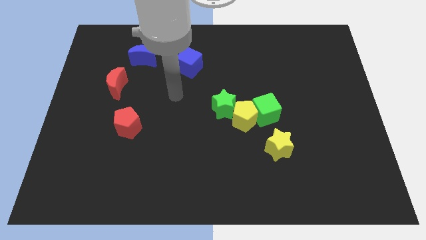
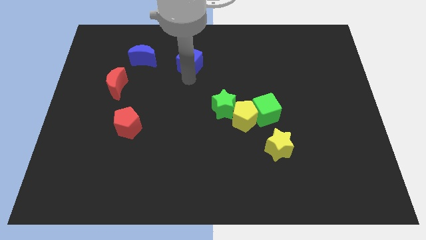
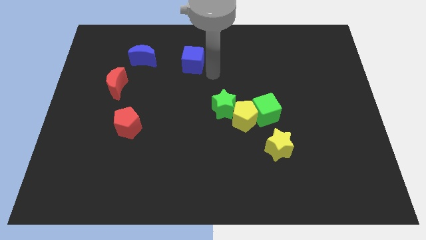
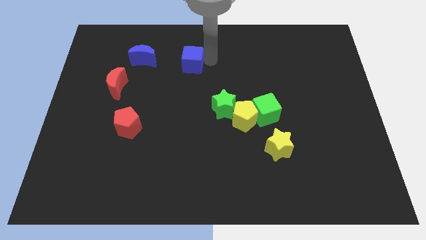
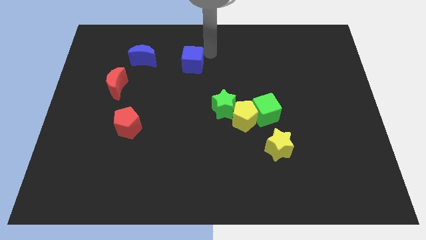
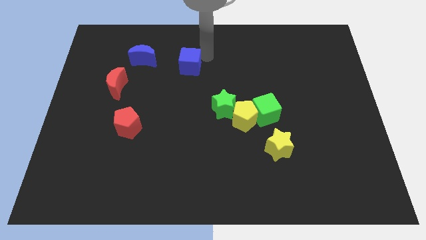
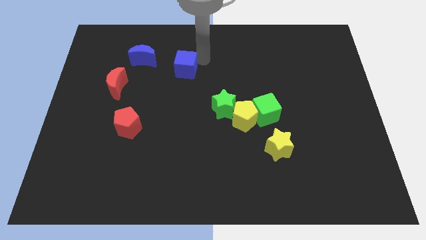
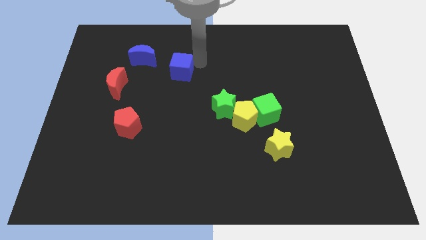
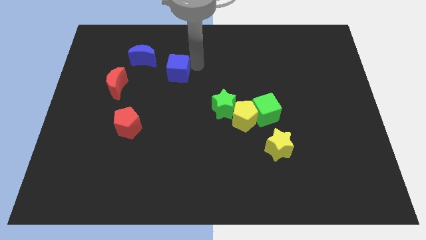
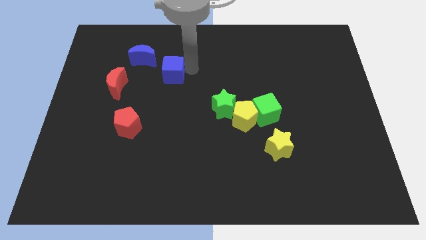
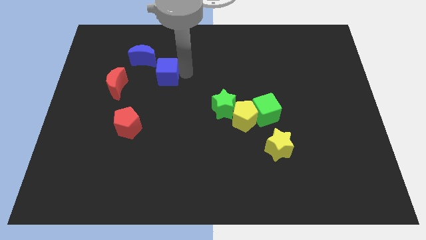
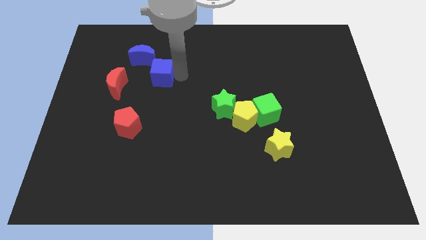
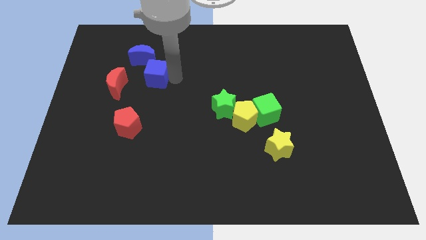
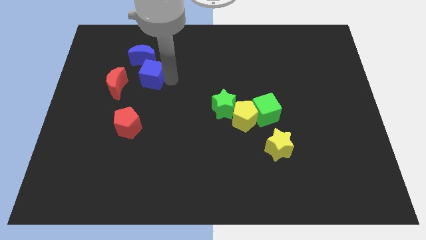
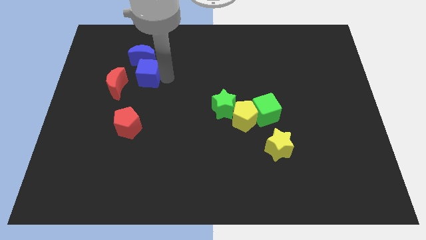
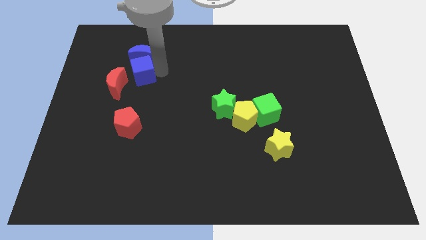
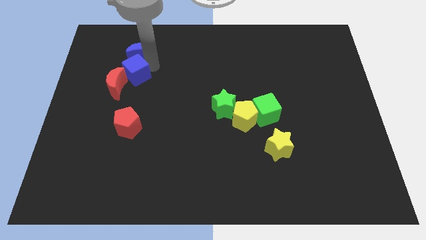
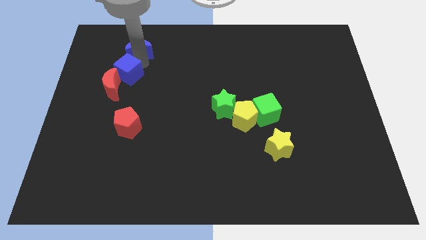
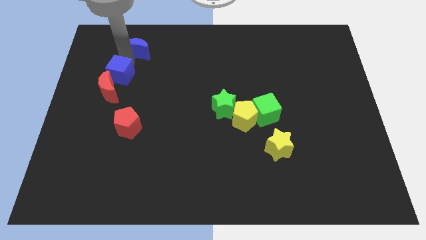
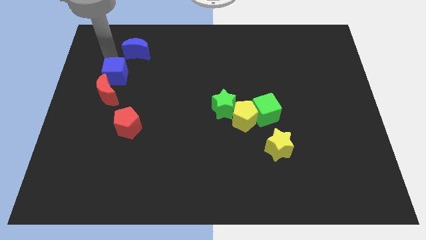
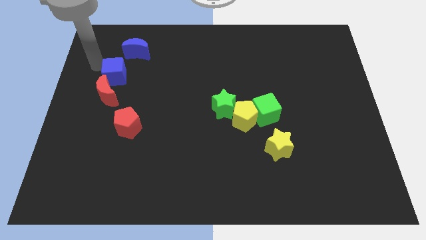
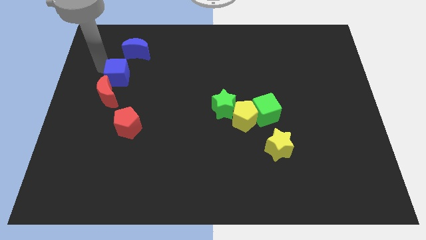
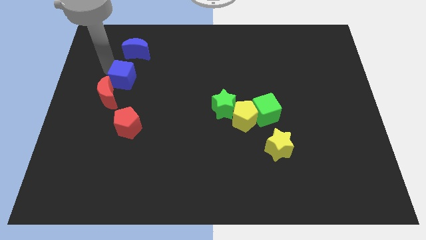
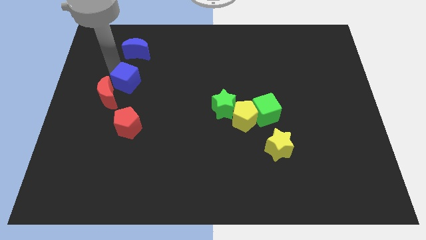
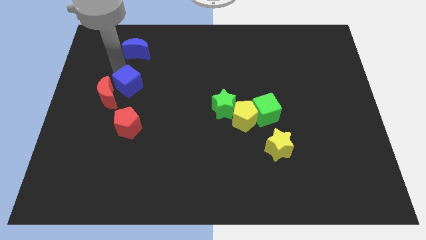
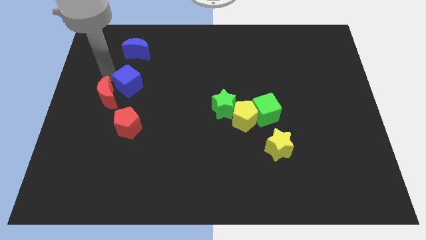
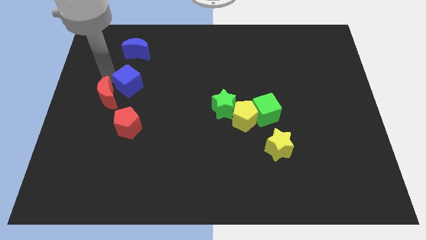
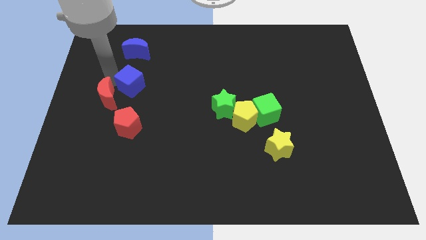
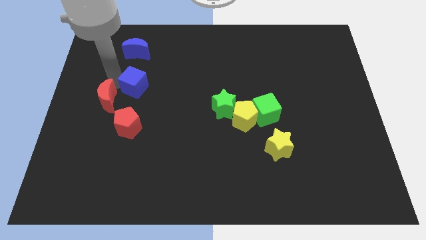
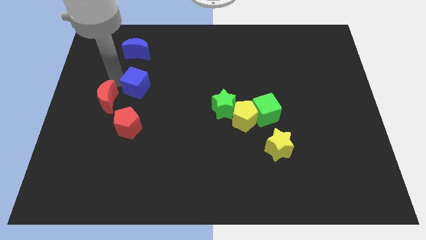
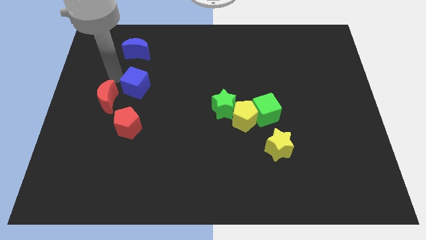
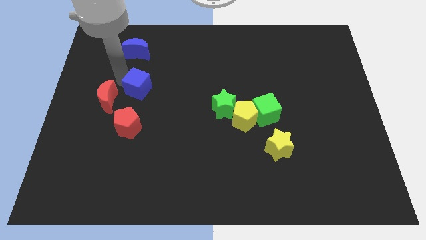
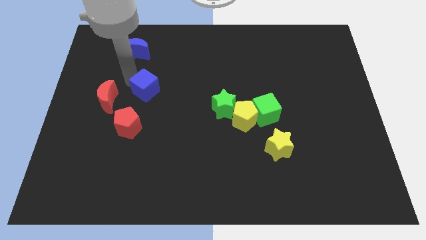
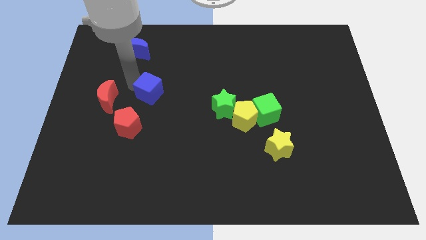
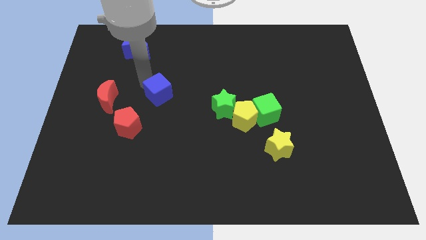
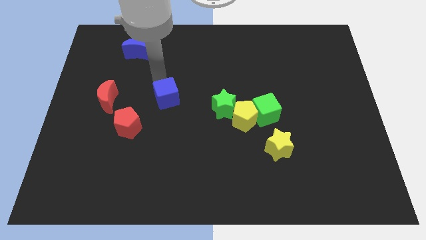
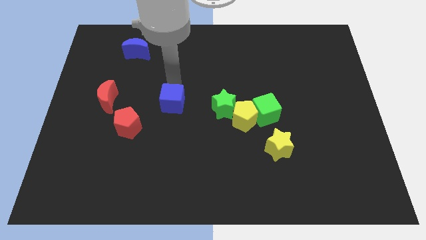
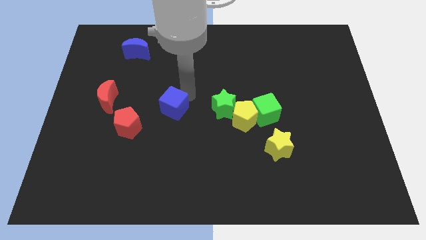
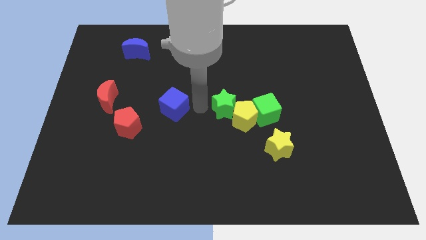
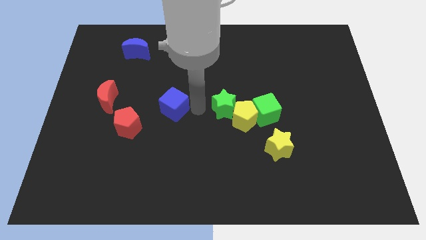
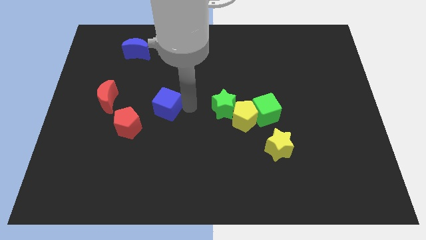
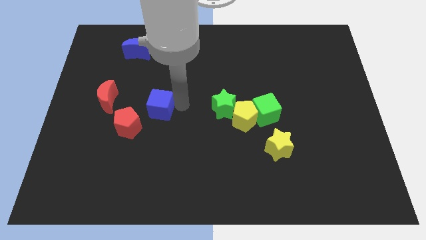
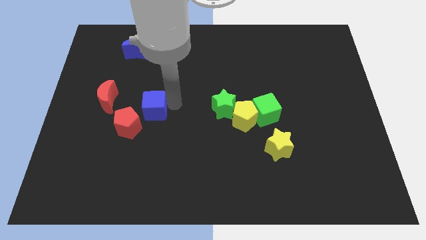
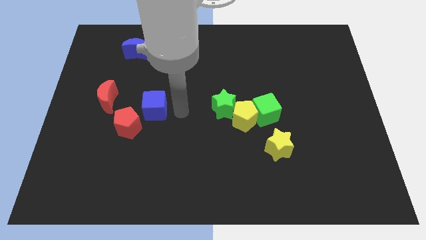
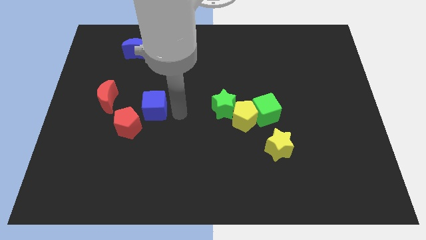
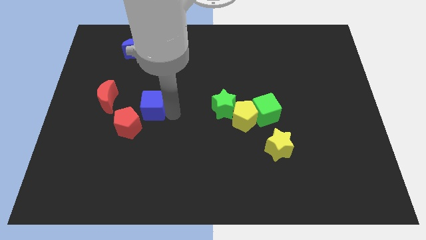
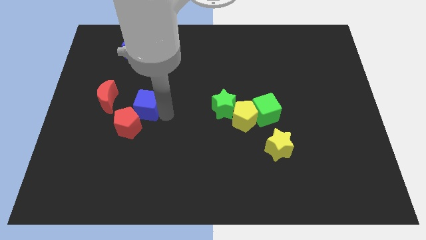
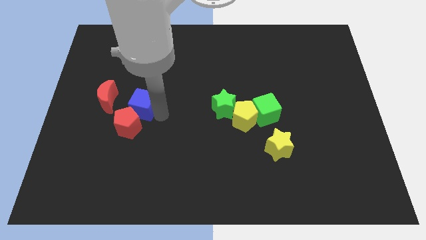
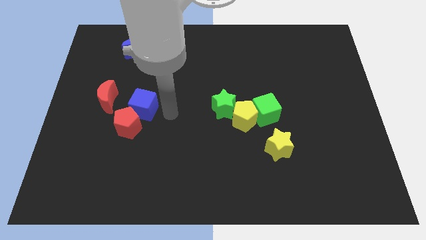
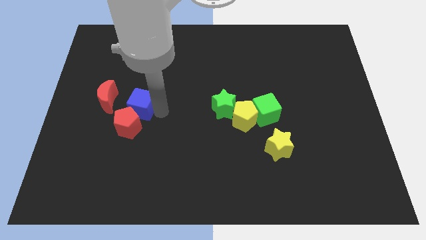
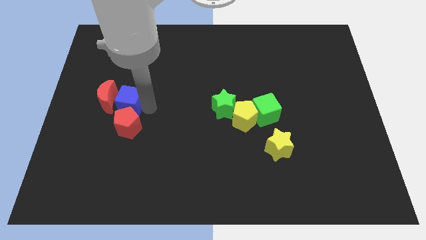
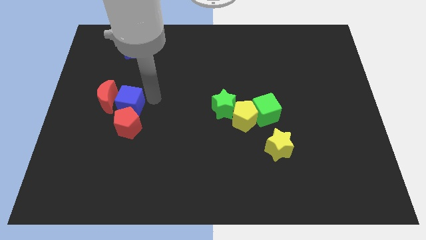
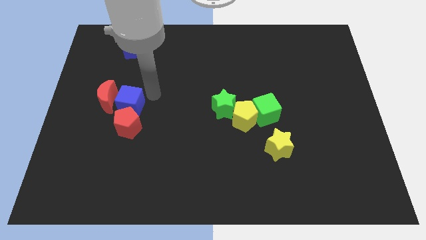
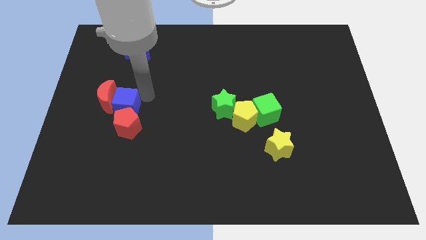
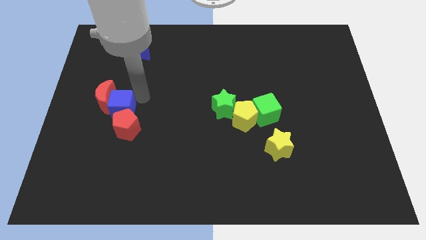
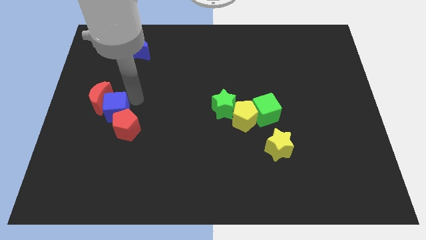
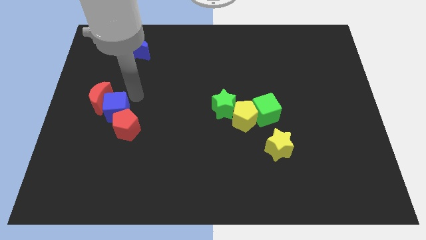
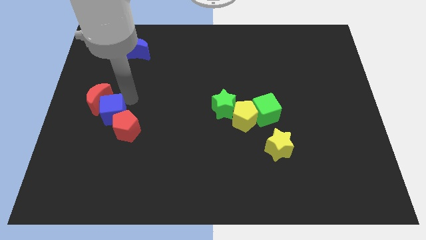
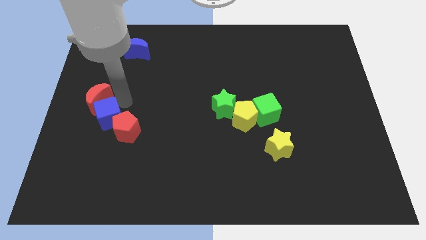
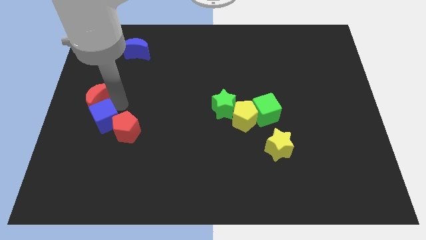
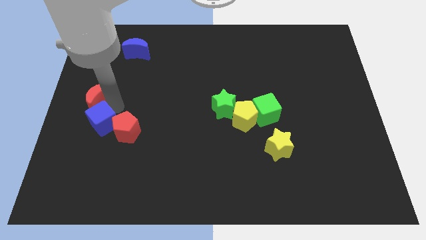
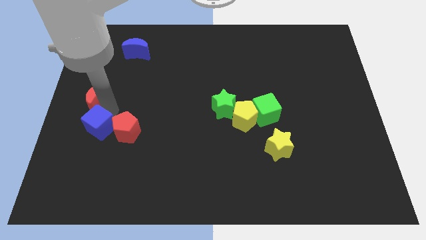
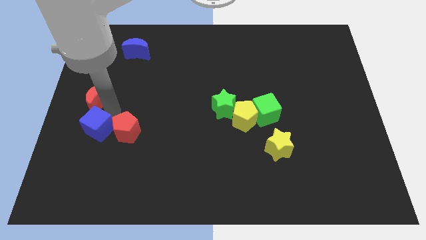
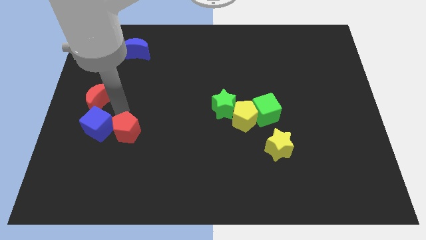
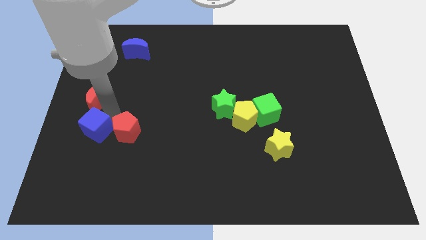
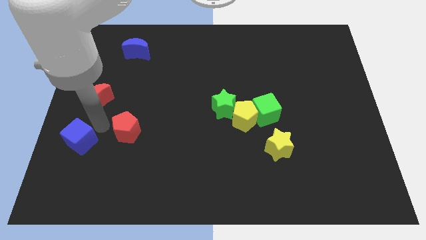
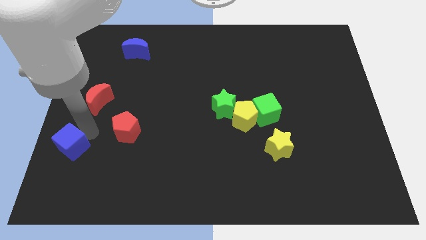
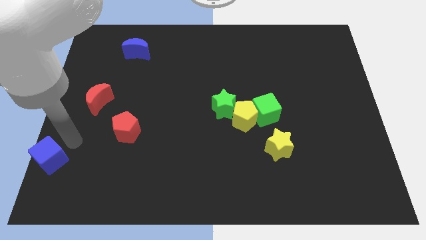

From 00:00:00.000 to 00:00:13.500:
move the blue cube to the bottom left corner
